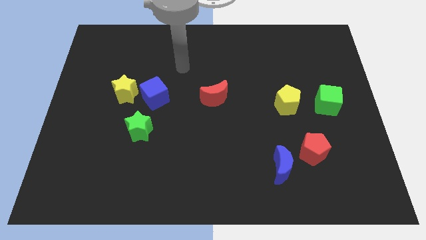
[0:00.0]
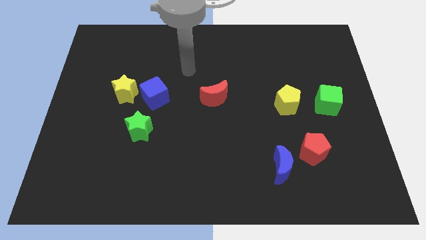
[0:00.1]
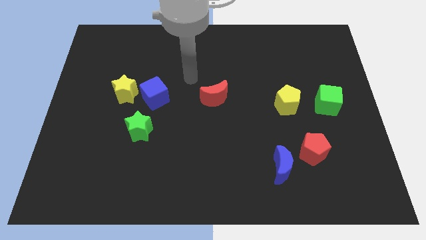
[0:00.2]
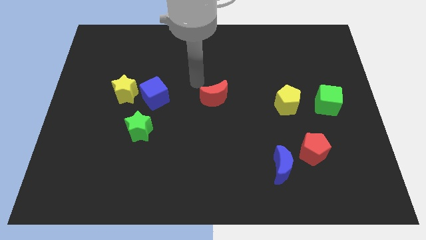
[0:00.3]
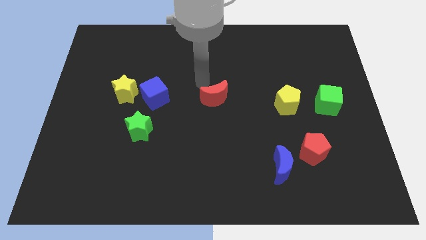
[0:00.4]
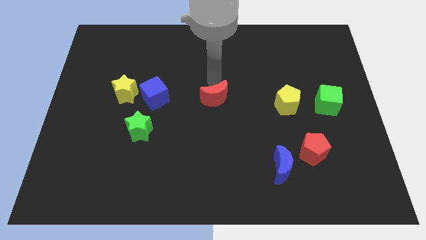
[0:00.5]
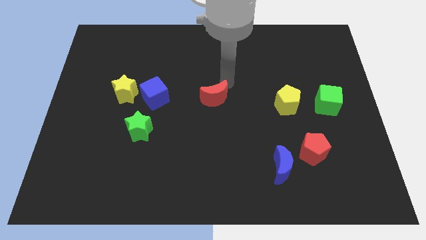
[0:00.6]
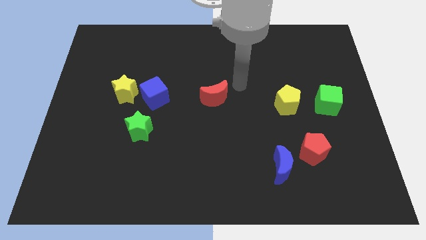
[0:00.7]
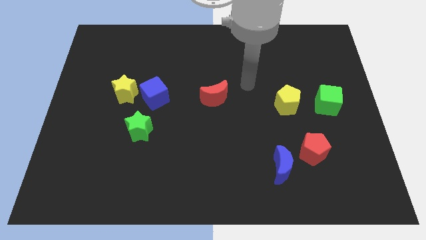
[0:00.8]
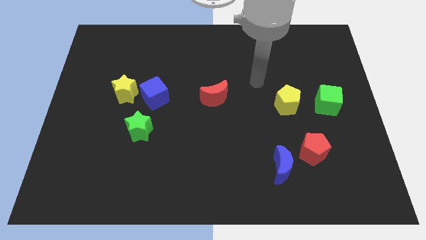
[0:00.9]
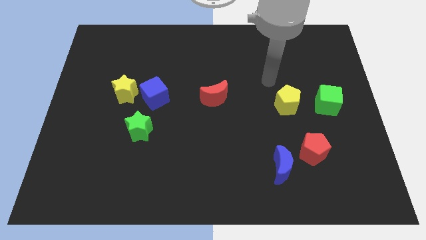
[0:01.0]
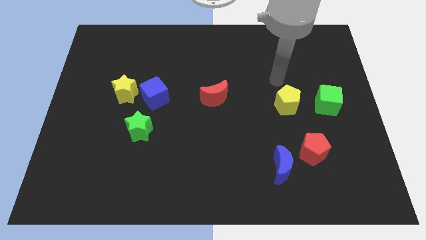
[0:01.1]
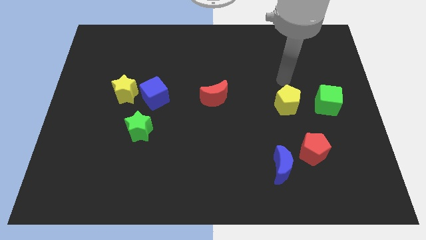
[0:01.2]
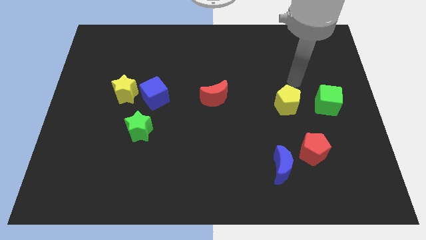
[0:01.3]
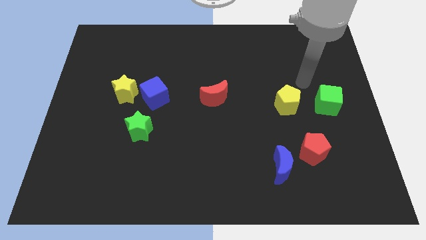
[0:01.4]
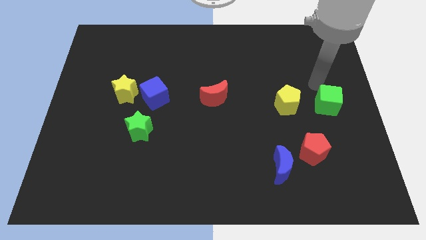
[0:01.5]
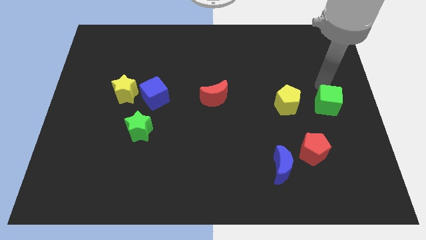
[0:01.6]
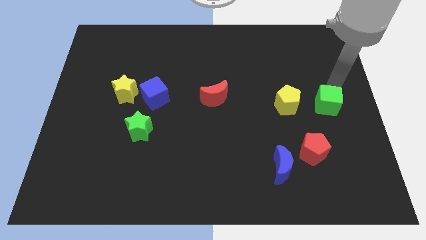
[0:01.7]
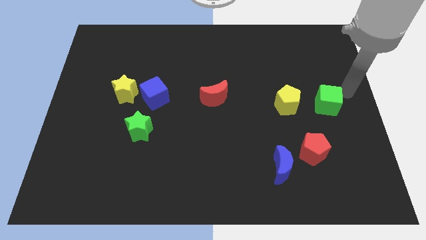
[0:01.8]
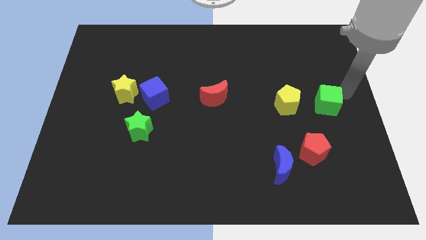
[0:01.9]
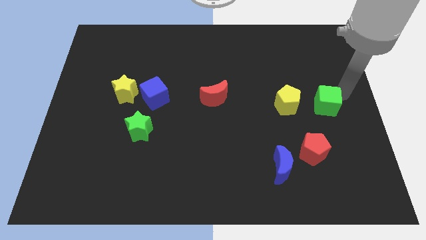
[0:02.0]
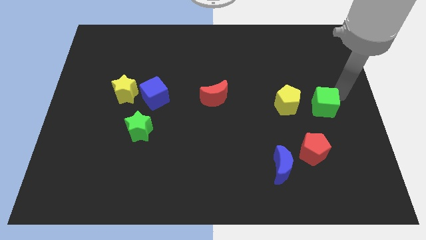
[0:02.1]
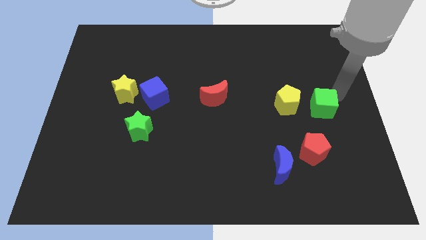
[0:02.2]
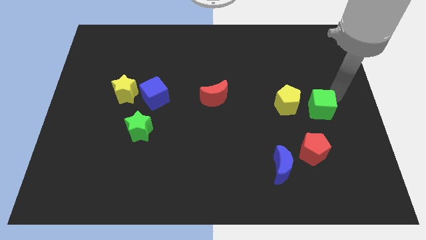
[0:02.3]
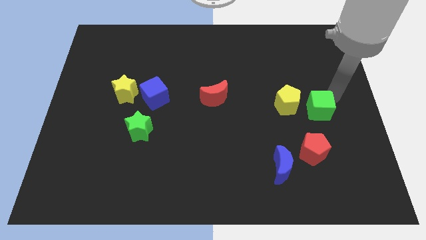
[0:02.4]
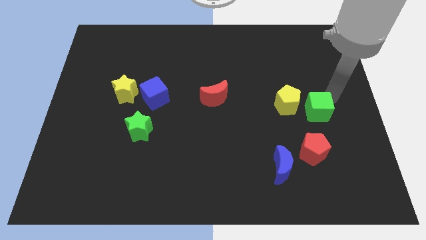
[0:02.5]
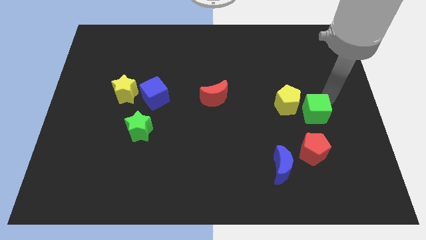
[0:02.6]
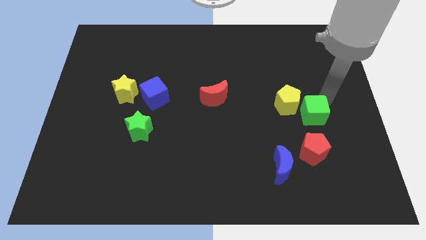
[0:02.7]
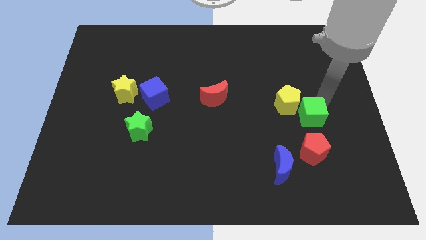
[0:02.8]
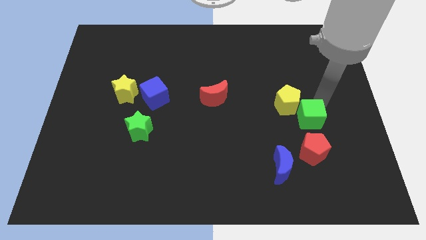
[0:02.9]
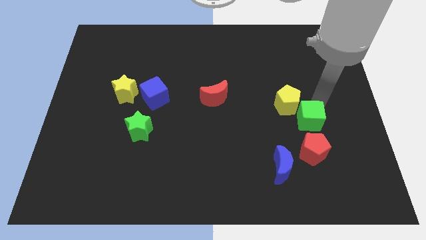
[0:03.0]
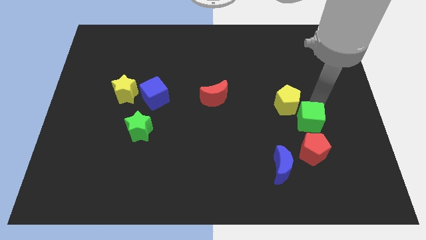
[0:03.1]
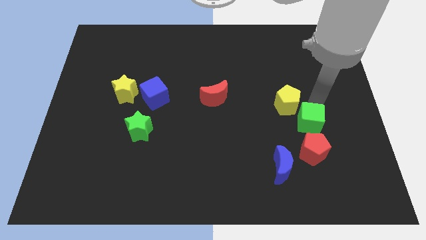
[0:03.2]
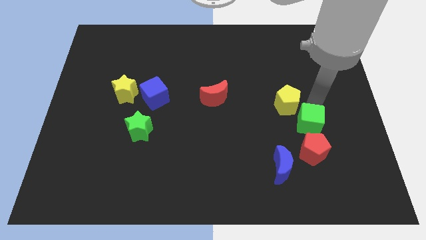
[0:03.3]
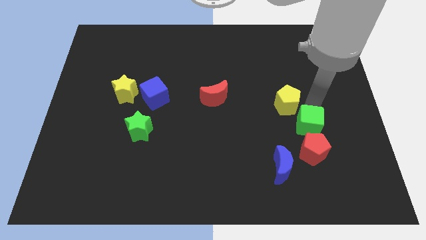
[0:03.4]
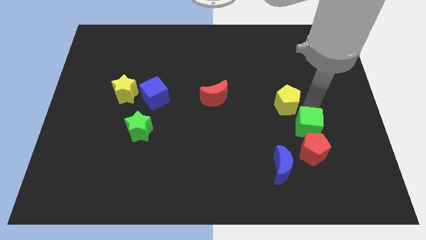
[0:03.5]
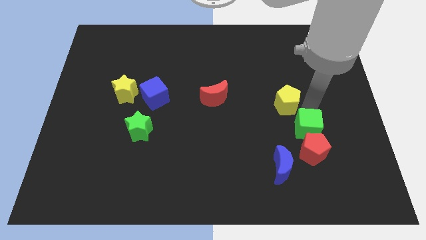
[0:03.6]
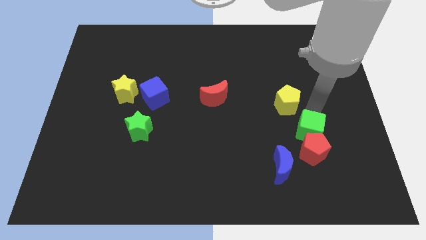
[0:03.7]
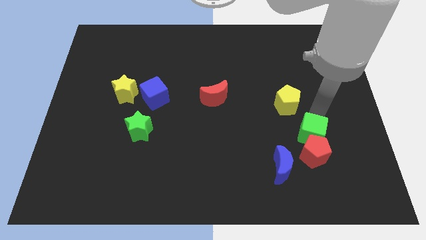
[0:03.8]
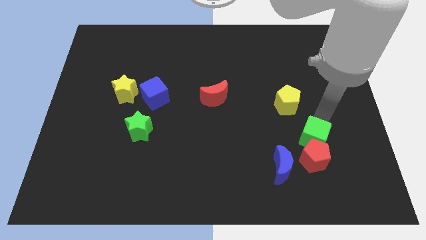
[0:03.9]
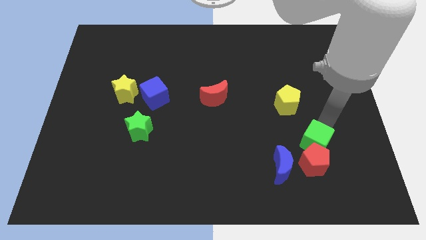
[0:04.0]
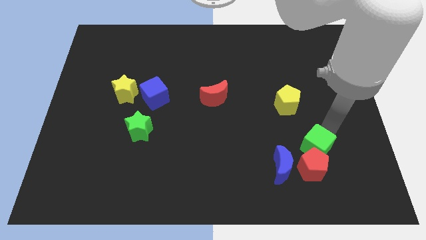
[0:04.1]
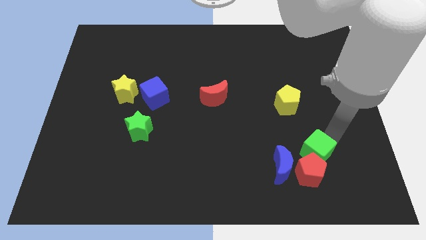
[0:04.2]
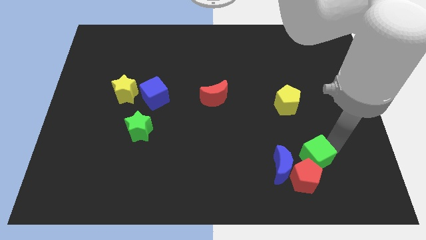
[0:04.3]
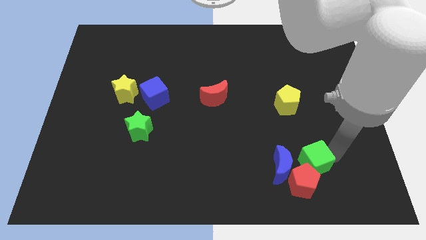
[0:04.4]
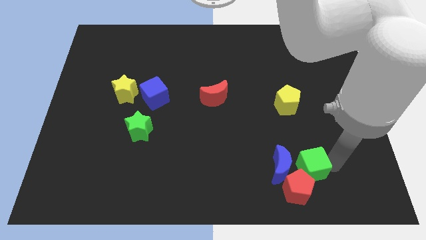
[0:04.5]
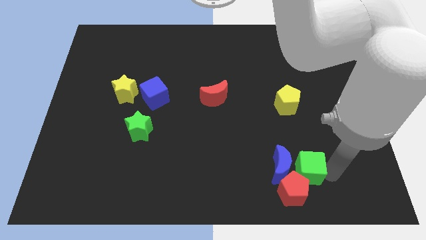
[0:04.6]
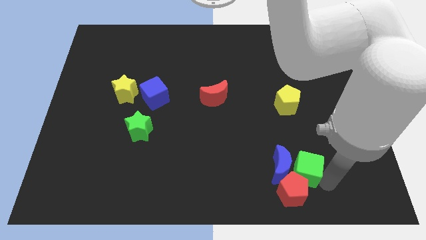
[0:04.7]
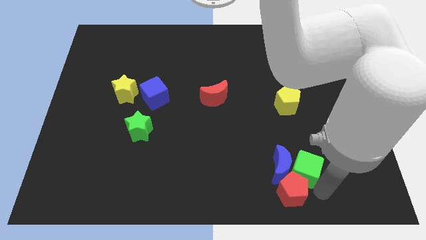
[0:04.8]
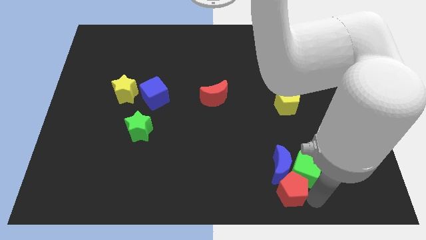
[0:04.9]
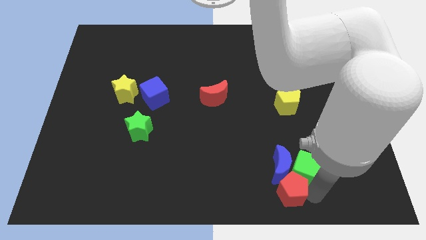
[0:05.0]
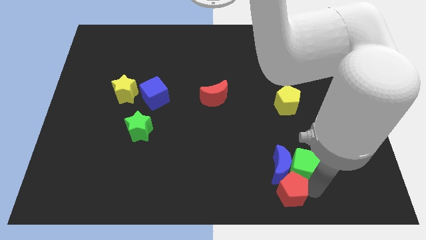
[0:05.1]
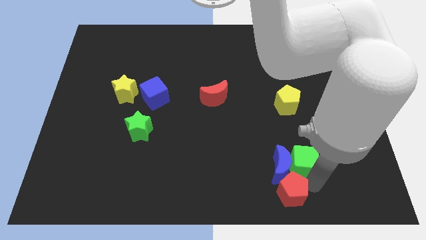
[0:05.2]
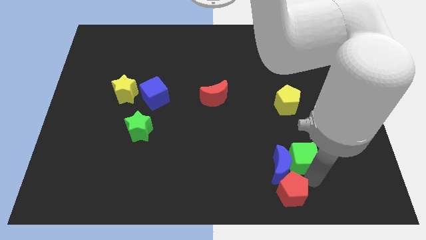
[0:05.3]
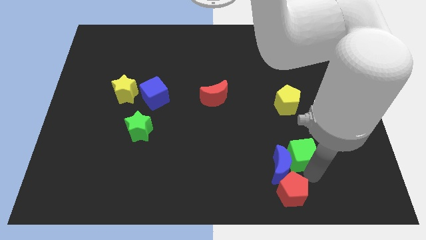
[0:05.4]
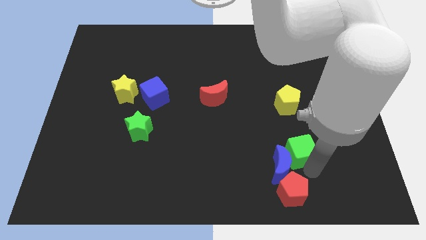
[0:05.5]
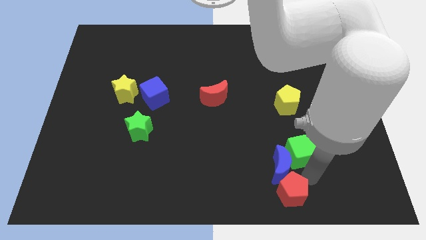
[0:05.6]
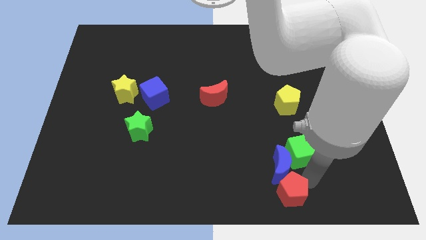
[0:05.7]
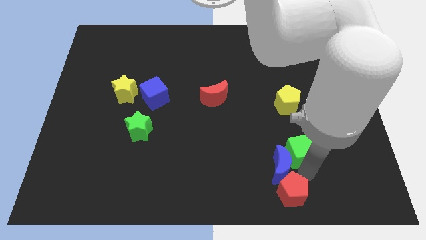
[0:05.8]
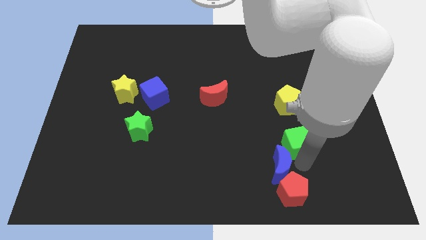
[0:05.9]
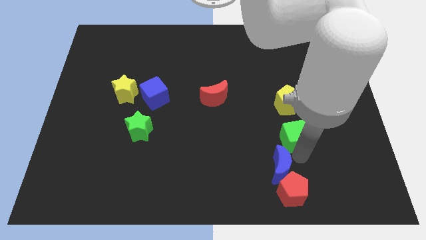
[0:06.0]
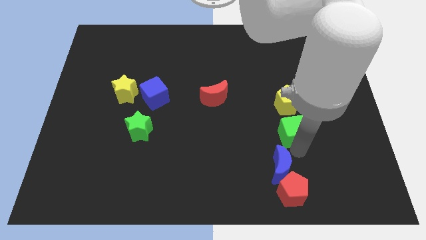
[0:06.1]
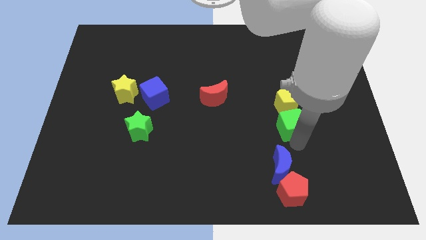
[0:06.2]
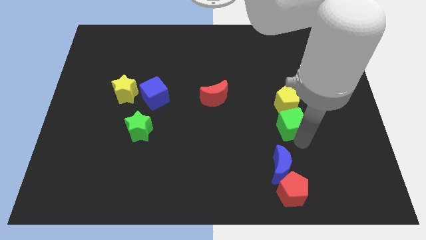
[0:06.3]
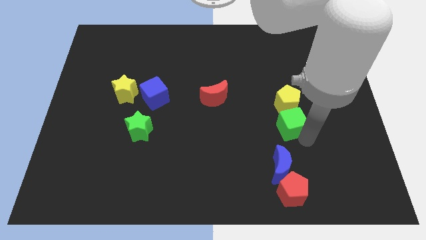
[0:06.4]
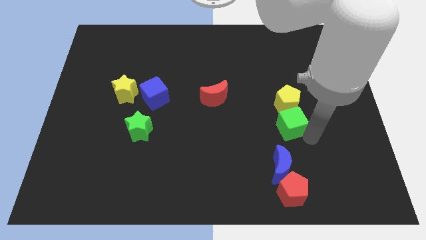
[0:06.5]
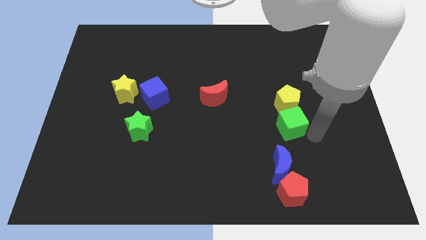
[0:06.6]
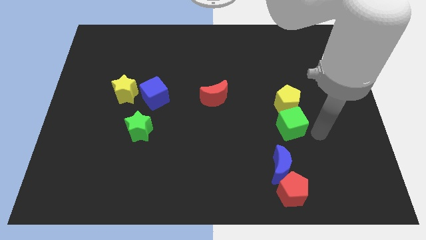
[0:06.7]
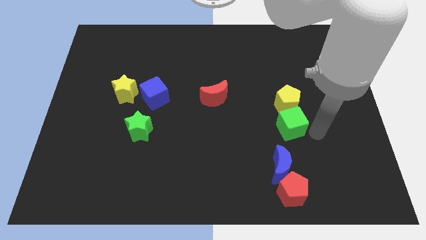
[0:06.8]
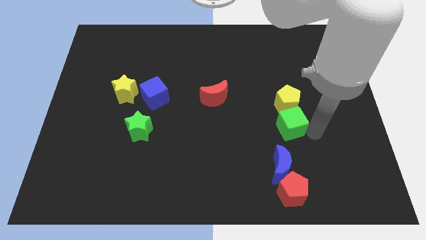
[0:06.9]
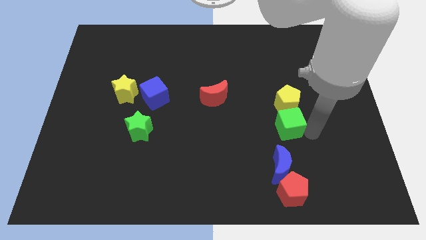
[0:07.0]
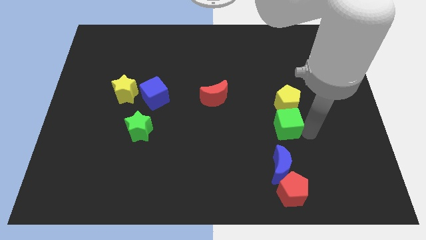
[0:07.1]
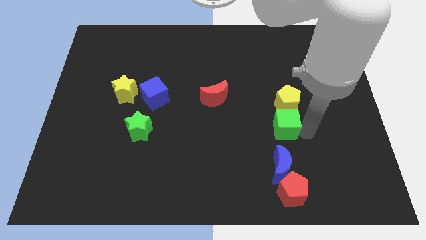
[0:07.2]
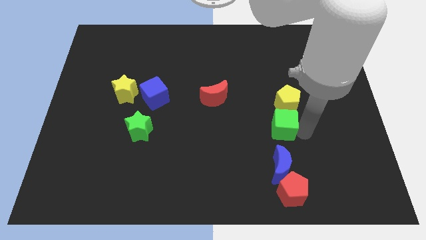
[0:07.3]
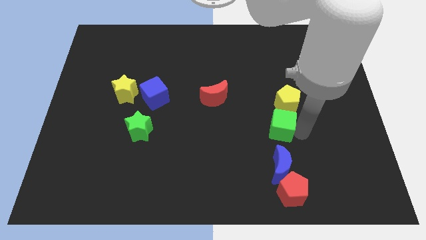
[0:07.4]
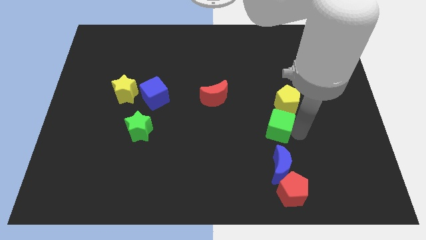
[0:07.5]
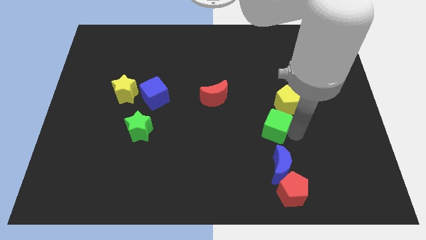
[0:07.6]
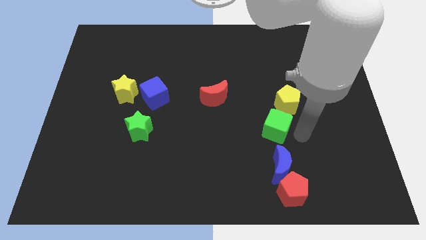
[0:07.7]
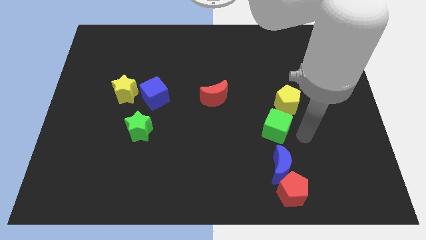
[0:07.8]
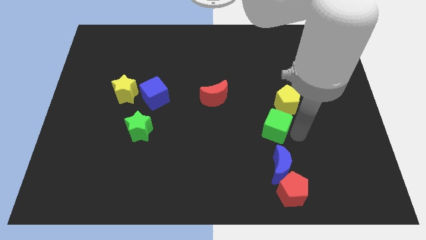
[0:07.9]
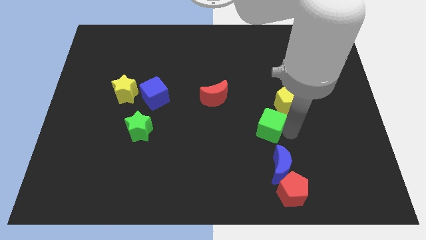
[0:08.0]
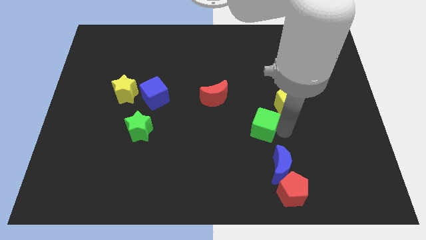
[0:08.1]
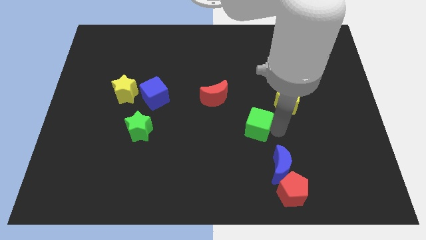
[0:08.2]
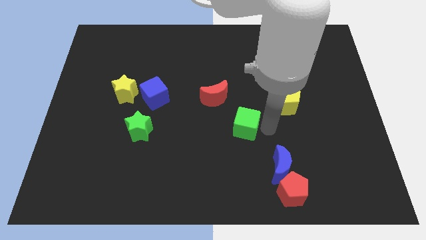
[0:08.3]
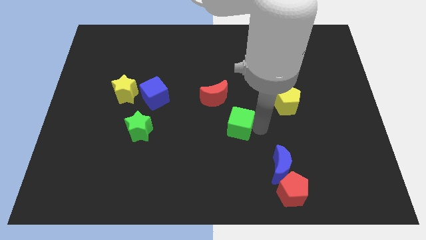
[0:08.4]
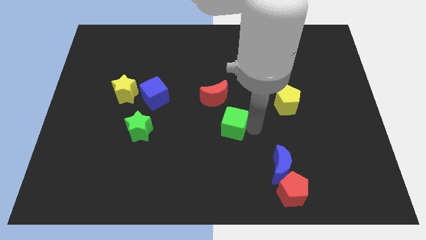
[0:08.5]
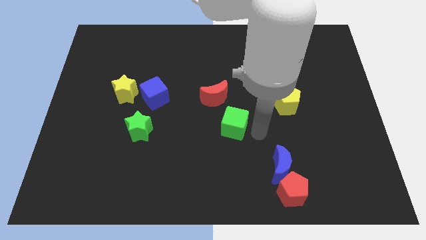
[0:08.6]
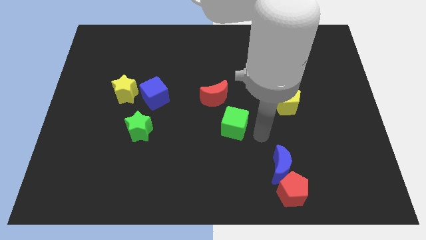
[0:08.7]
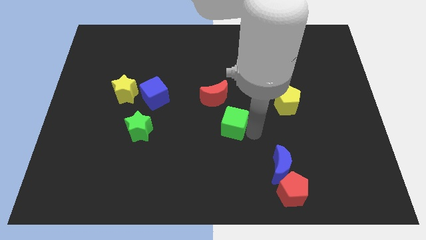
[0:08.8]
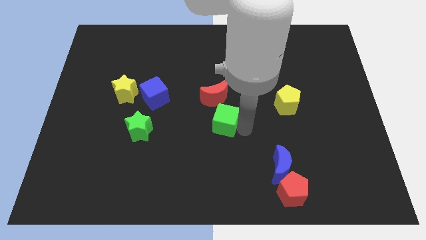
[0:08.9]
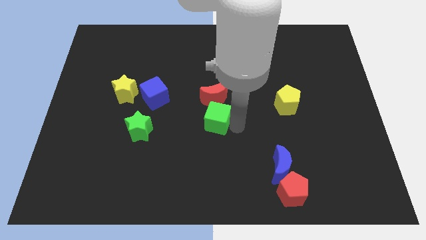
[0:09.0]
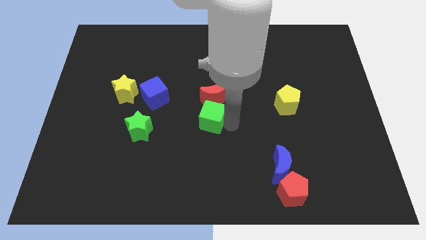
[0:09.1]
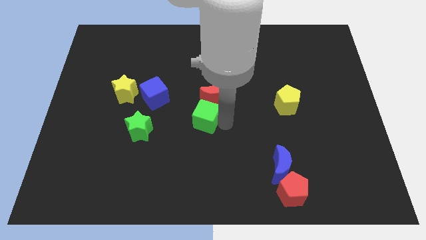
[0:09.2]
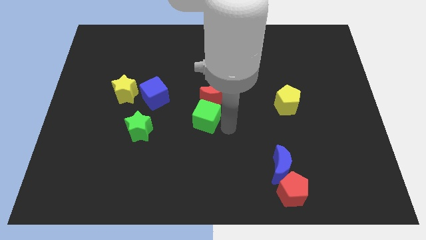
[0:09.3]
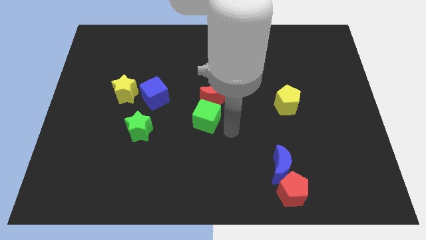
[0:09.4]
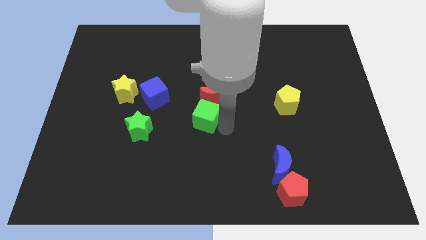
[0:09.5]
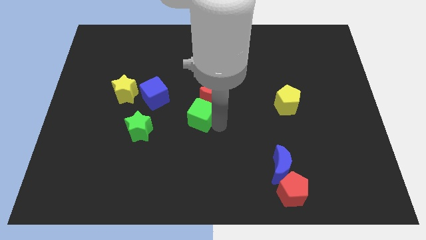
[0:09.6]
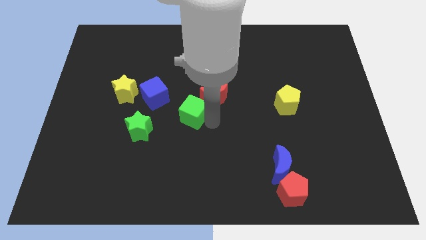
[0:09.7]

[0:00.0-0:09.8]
move the green cube left of the red moon
